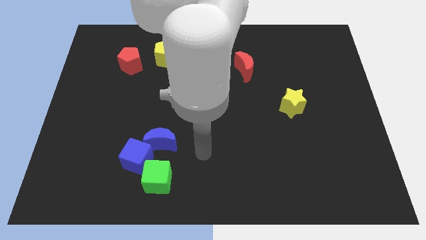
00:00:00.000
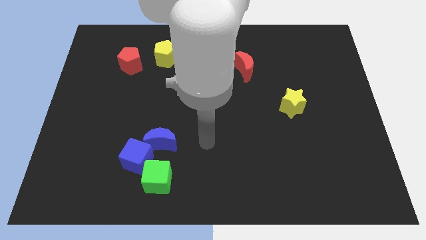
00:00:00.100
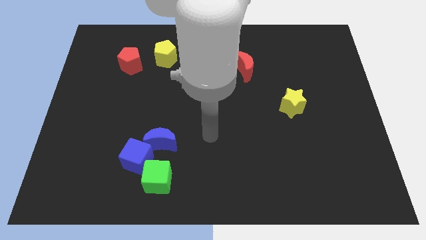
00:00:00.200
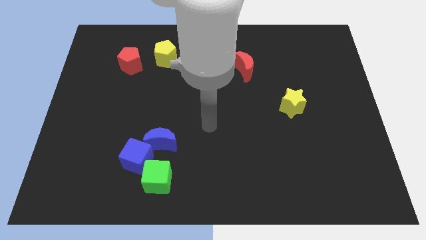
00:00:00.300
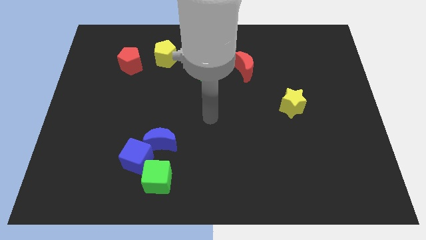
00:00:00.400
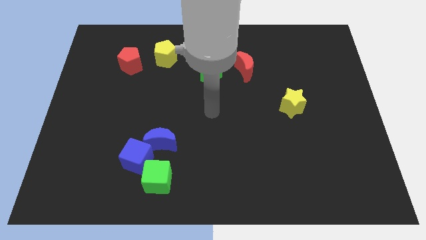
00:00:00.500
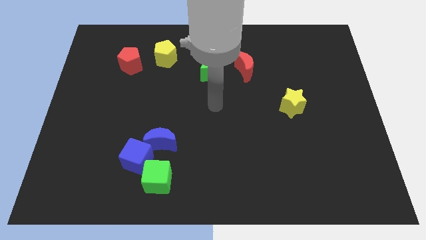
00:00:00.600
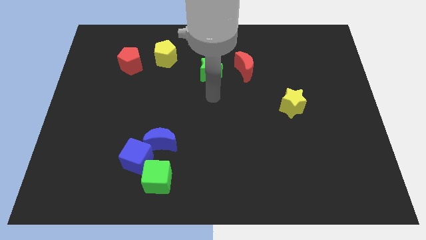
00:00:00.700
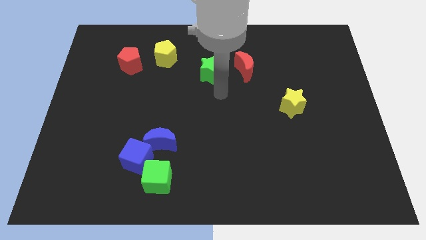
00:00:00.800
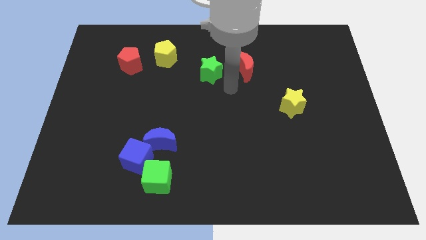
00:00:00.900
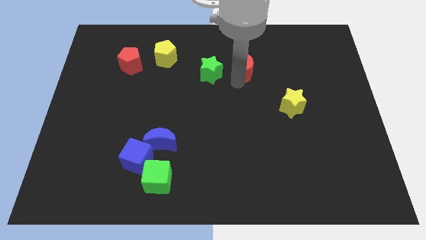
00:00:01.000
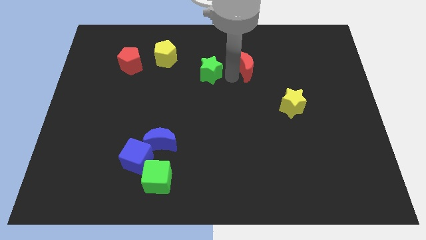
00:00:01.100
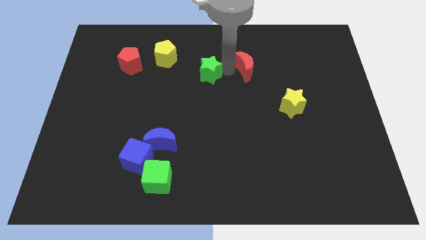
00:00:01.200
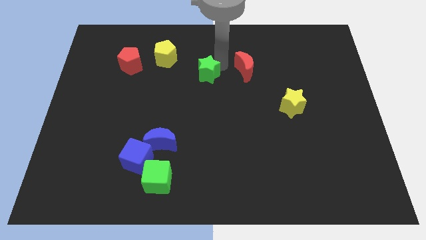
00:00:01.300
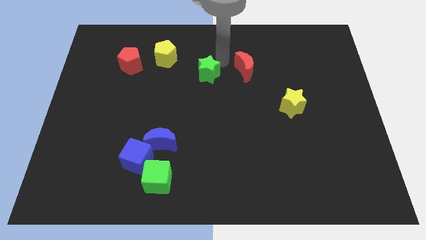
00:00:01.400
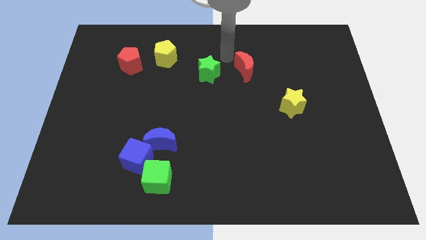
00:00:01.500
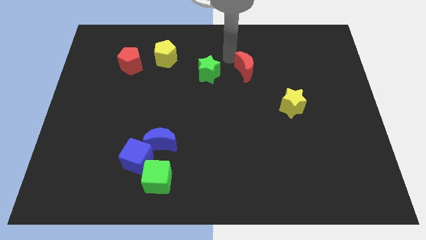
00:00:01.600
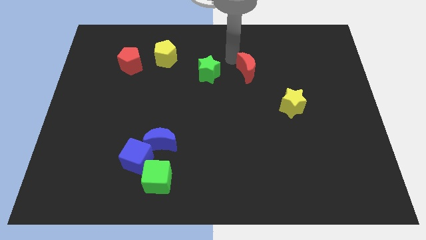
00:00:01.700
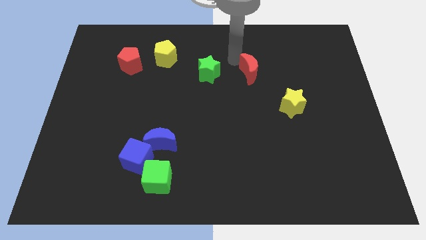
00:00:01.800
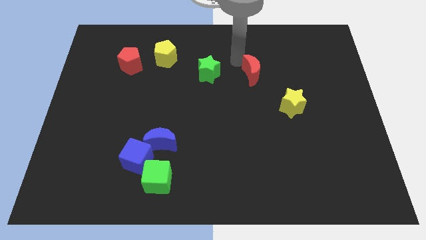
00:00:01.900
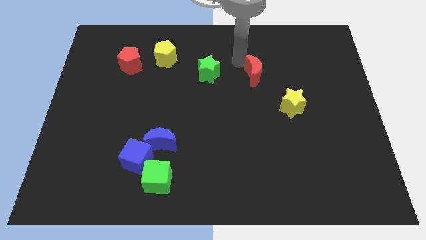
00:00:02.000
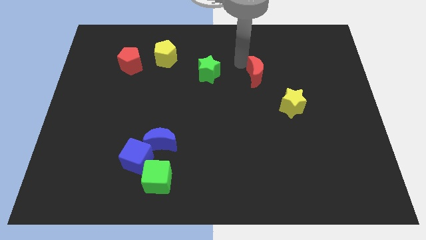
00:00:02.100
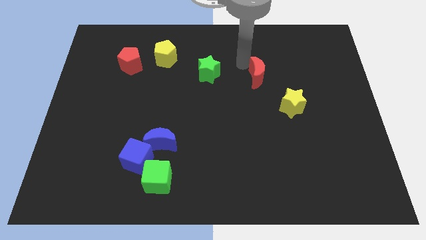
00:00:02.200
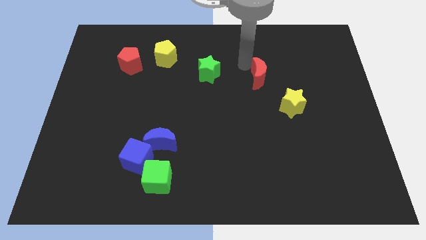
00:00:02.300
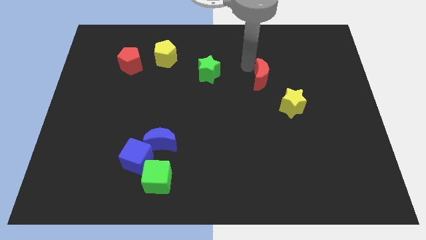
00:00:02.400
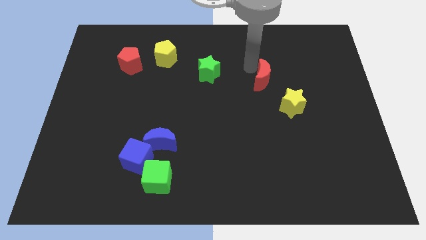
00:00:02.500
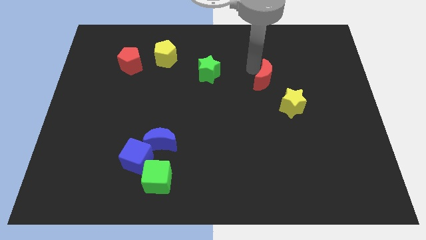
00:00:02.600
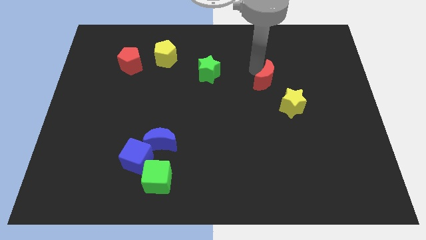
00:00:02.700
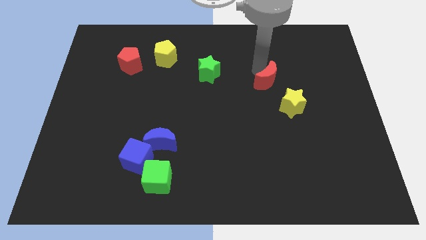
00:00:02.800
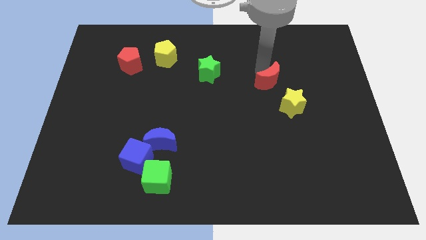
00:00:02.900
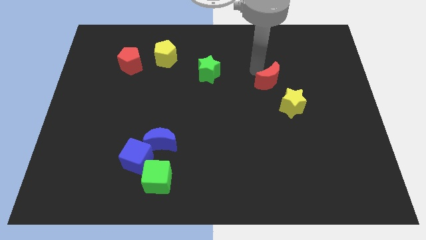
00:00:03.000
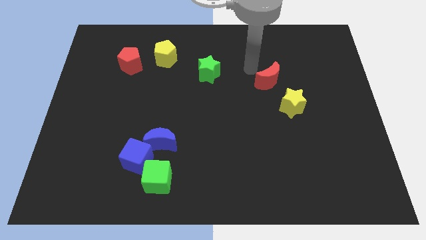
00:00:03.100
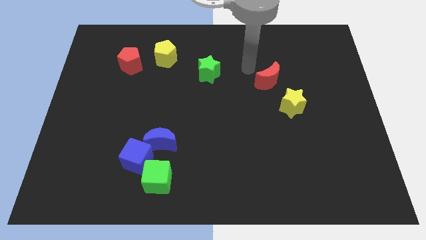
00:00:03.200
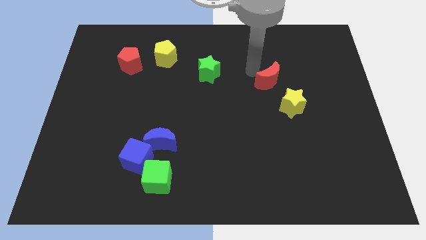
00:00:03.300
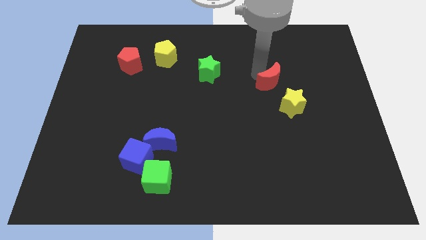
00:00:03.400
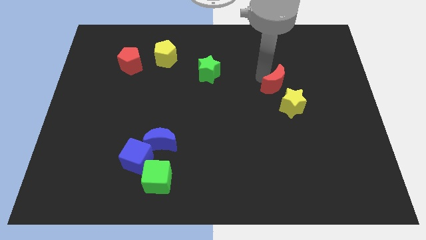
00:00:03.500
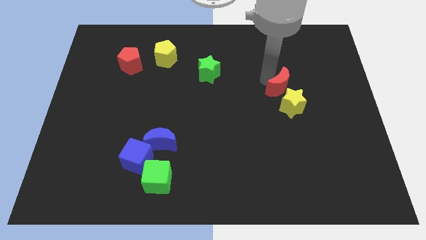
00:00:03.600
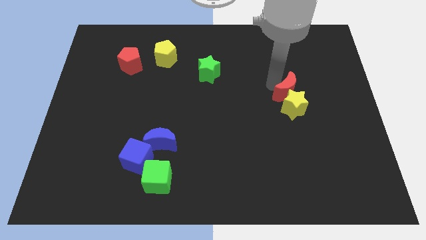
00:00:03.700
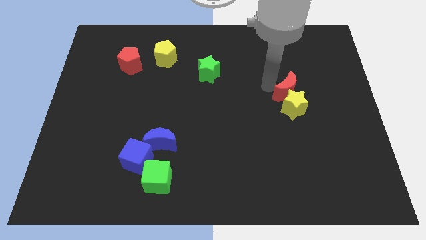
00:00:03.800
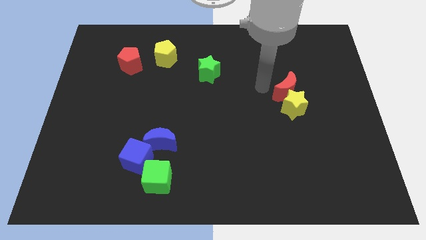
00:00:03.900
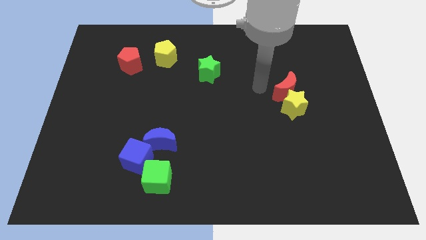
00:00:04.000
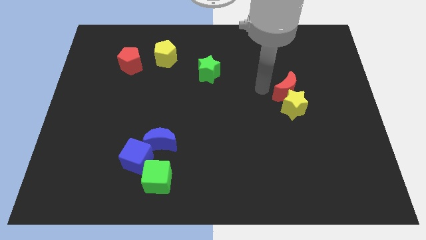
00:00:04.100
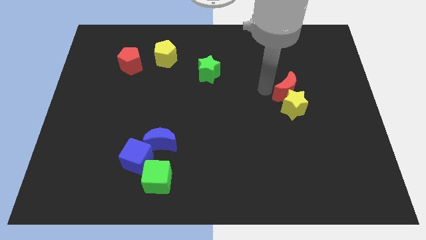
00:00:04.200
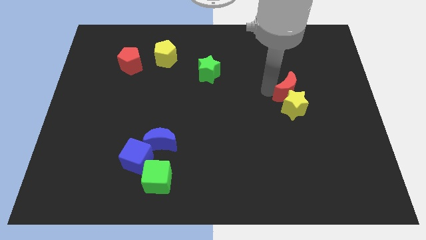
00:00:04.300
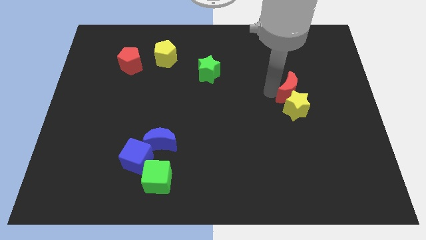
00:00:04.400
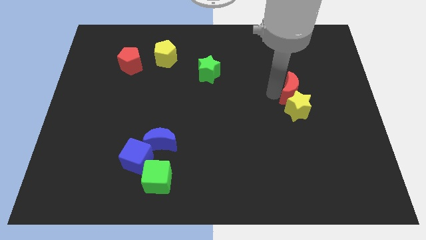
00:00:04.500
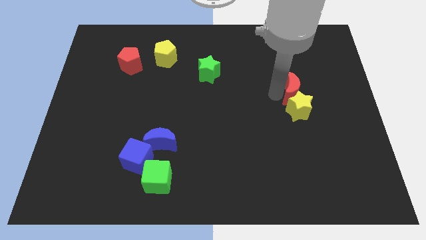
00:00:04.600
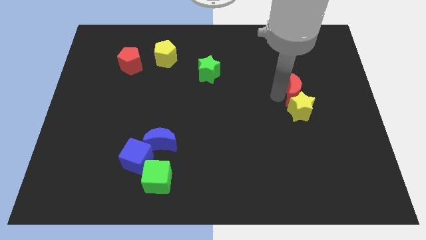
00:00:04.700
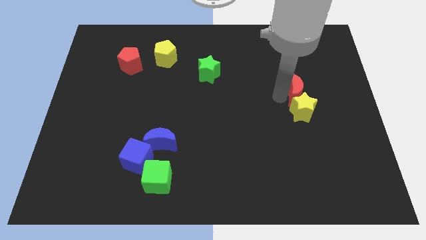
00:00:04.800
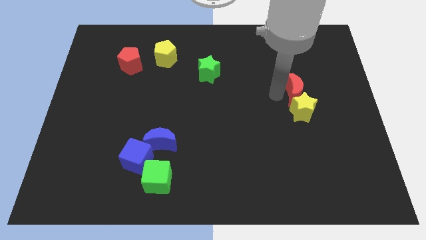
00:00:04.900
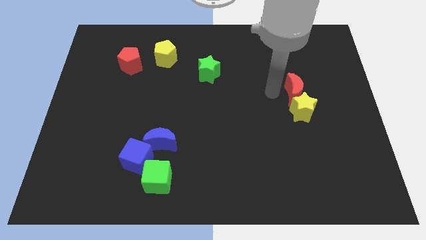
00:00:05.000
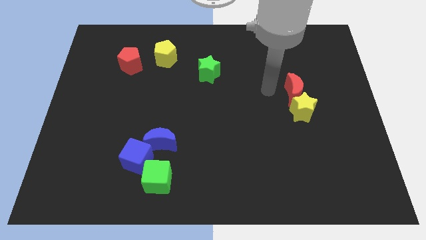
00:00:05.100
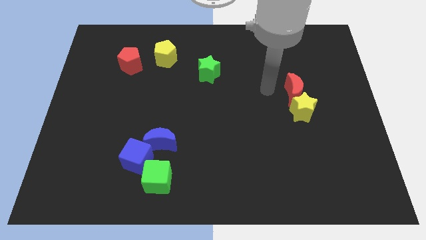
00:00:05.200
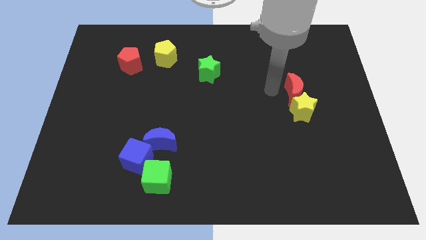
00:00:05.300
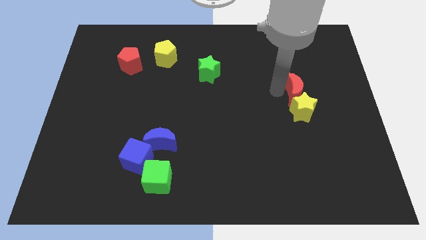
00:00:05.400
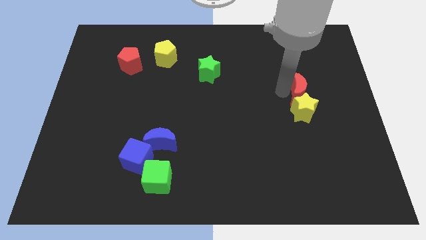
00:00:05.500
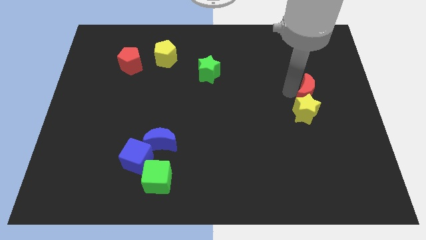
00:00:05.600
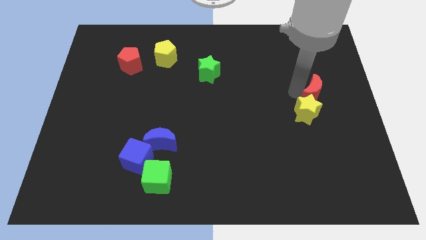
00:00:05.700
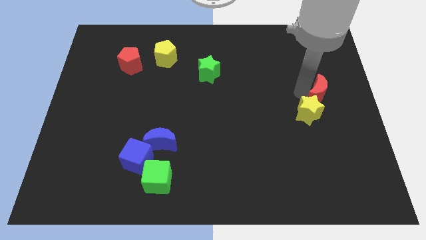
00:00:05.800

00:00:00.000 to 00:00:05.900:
push the red moon to the right side of the board
